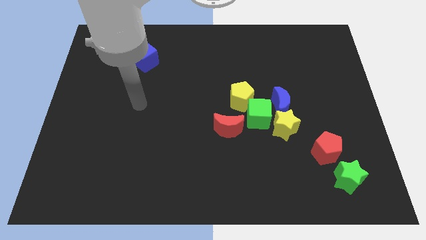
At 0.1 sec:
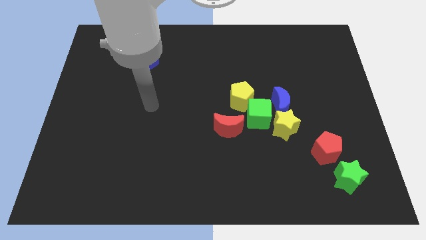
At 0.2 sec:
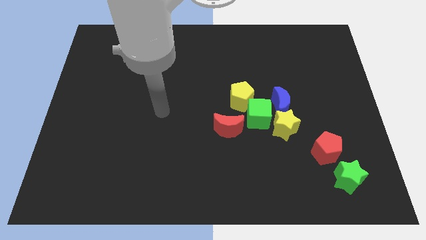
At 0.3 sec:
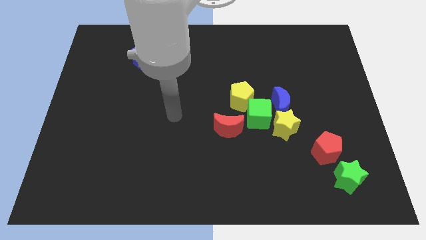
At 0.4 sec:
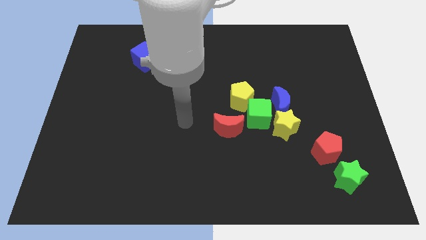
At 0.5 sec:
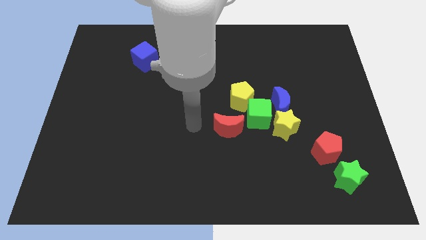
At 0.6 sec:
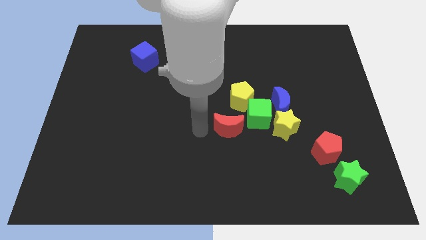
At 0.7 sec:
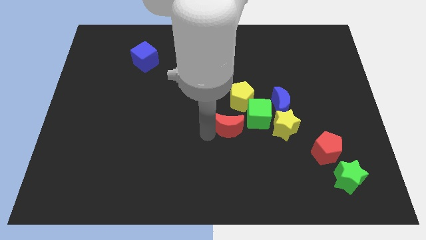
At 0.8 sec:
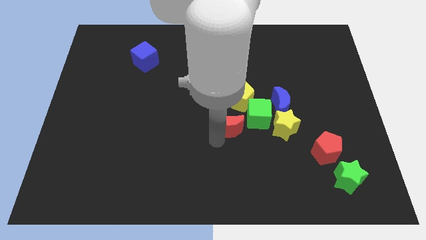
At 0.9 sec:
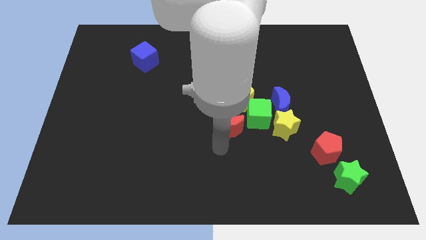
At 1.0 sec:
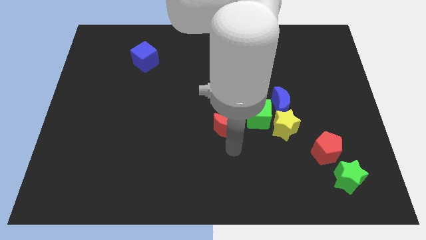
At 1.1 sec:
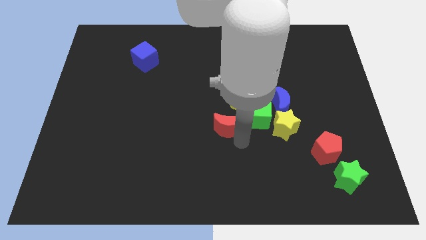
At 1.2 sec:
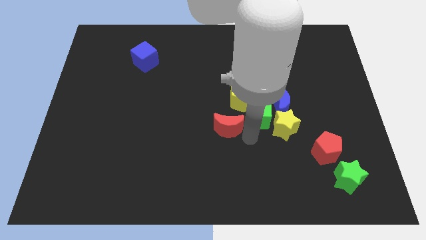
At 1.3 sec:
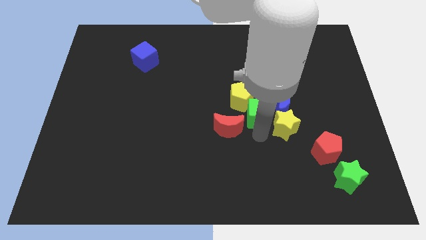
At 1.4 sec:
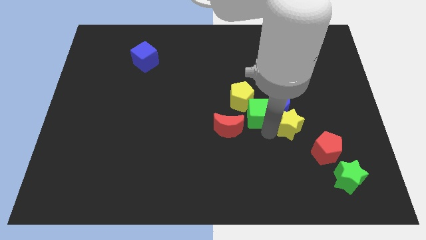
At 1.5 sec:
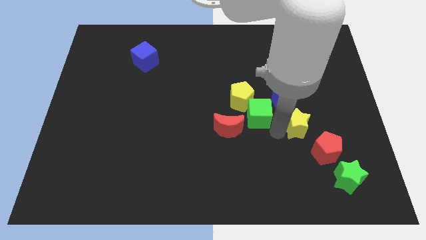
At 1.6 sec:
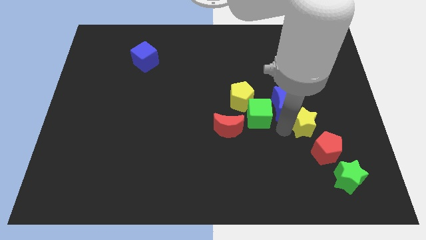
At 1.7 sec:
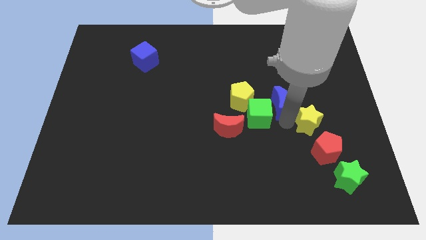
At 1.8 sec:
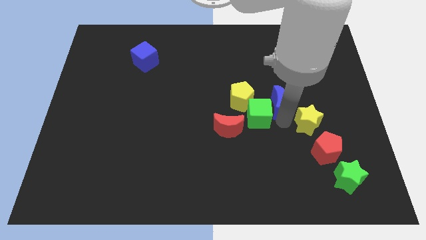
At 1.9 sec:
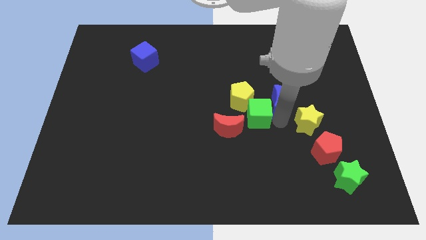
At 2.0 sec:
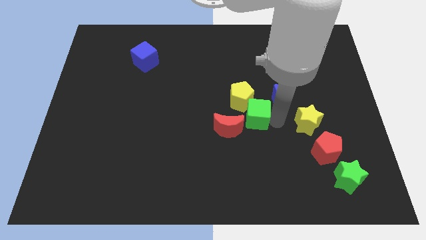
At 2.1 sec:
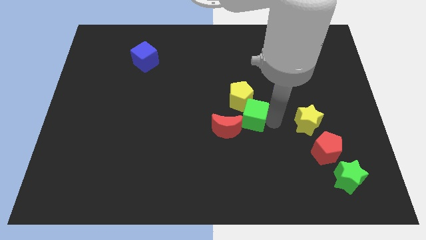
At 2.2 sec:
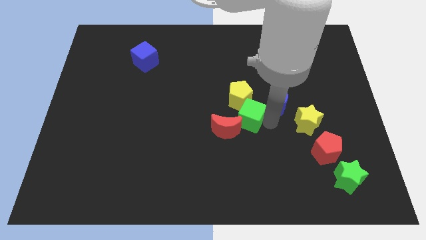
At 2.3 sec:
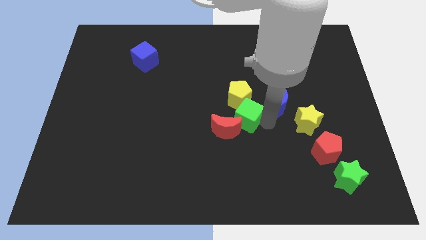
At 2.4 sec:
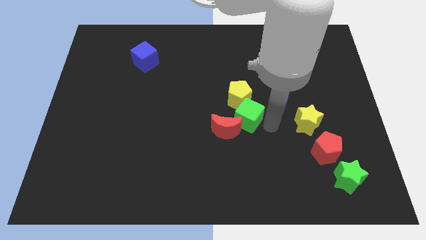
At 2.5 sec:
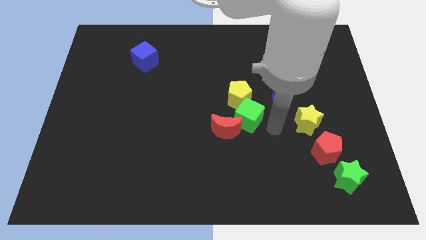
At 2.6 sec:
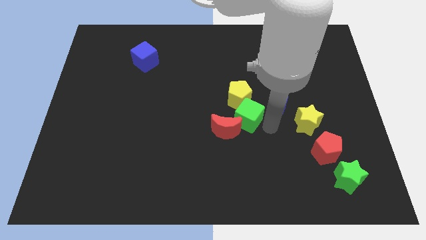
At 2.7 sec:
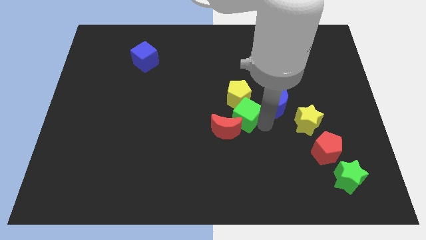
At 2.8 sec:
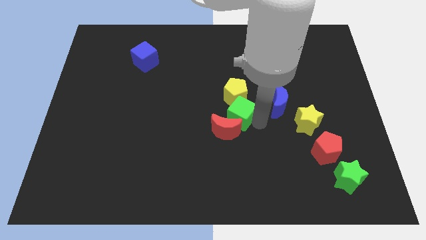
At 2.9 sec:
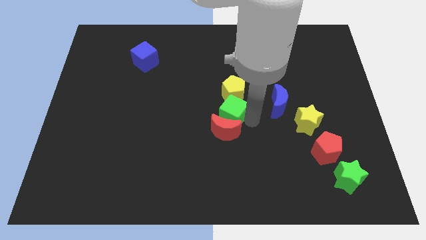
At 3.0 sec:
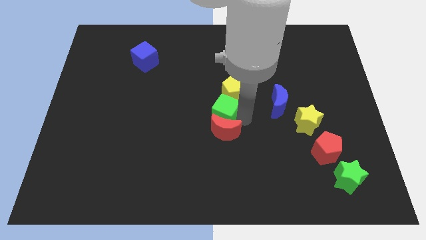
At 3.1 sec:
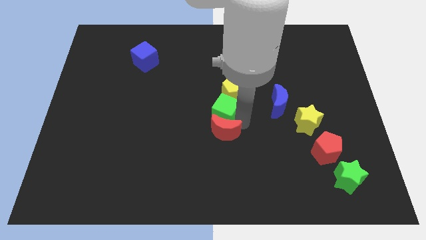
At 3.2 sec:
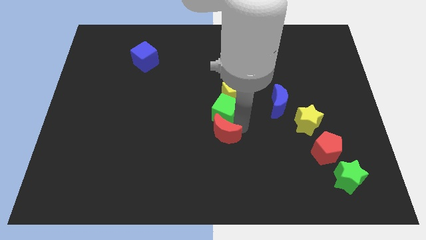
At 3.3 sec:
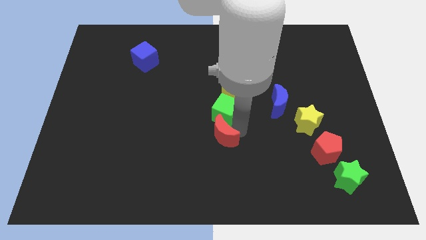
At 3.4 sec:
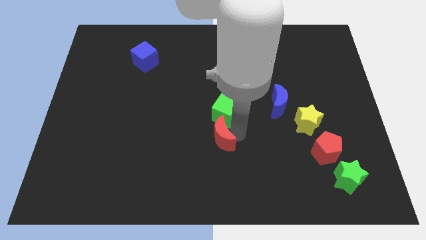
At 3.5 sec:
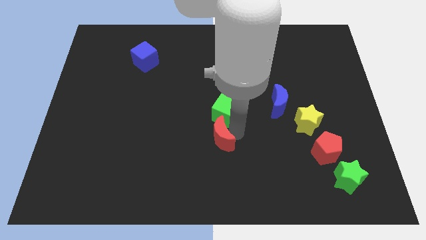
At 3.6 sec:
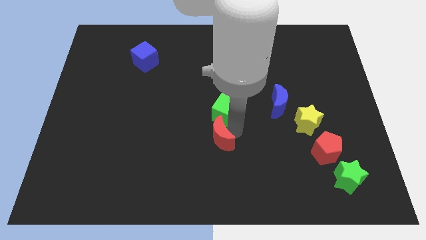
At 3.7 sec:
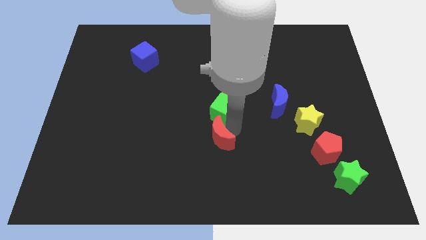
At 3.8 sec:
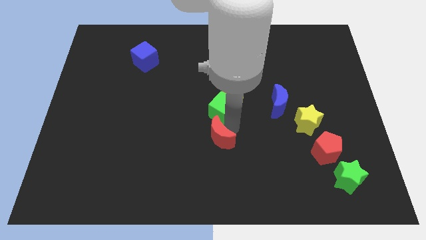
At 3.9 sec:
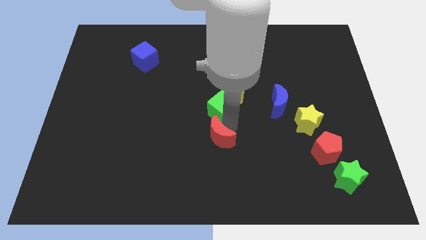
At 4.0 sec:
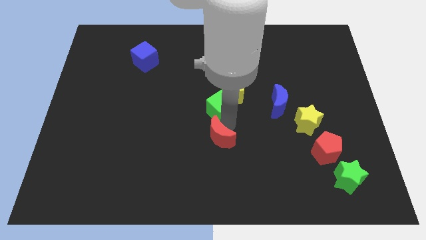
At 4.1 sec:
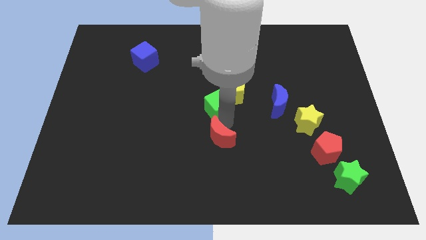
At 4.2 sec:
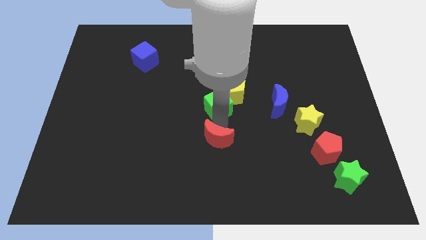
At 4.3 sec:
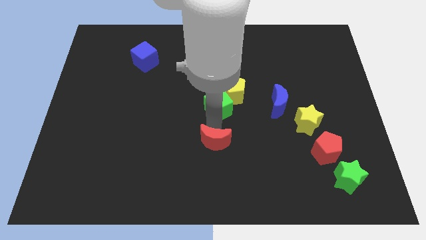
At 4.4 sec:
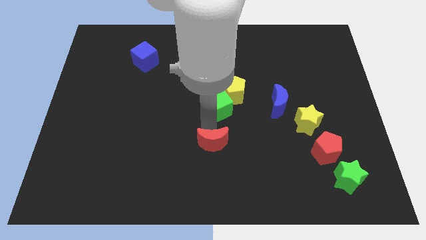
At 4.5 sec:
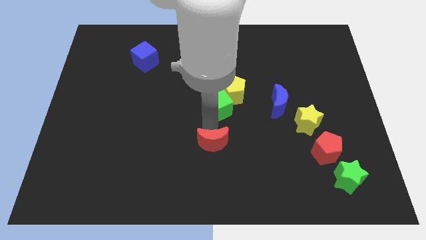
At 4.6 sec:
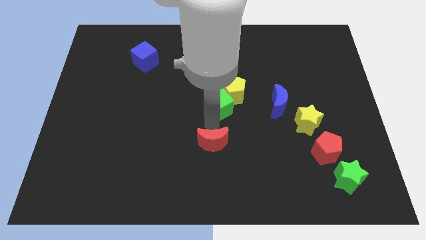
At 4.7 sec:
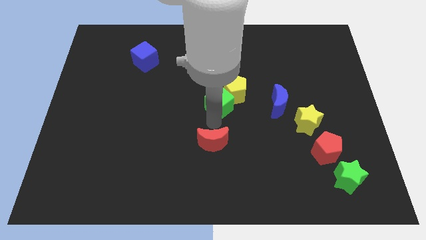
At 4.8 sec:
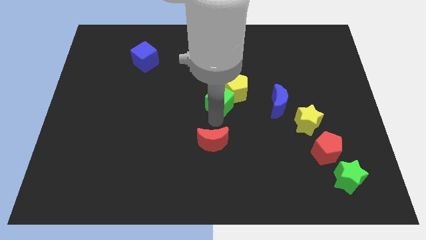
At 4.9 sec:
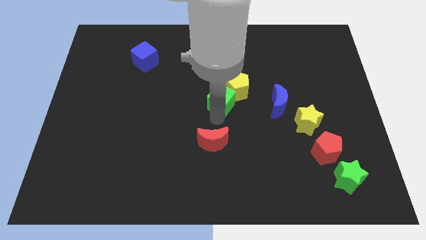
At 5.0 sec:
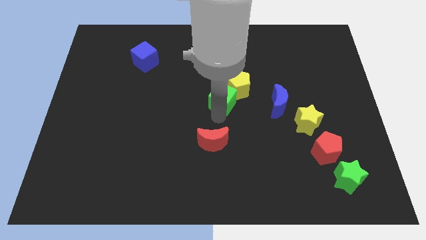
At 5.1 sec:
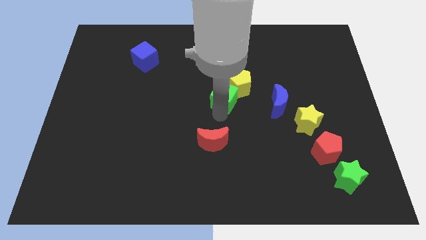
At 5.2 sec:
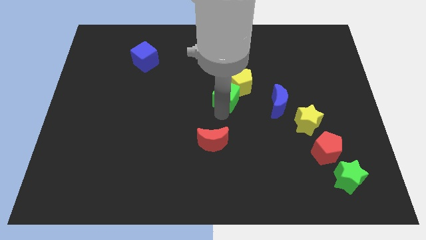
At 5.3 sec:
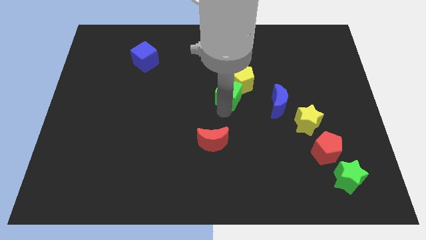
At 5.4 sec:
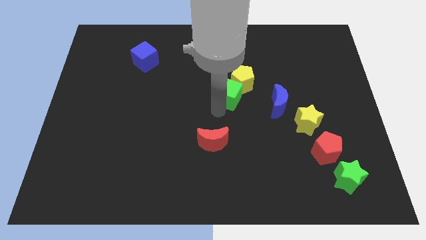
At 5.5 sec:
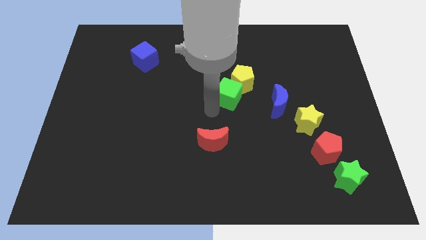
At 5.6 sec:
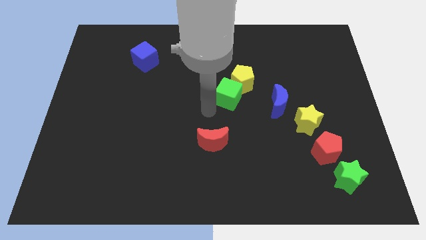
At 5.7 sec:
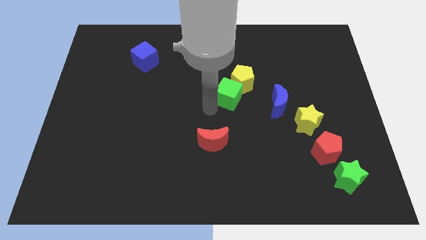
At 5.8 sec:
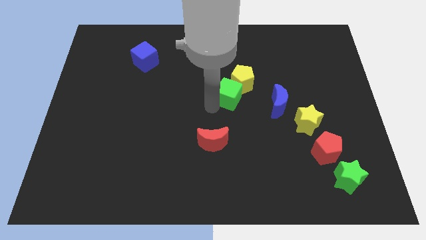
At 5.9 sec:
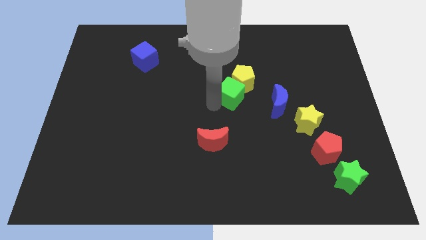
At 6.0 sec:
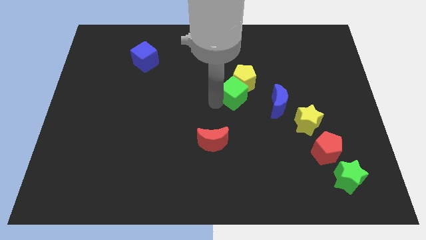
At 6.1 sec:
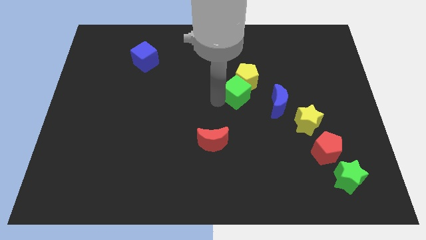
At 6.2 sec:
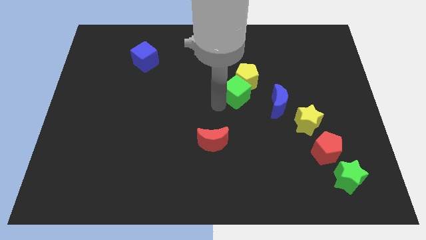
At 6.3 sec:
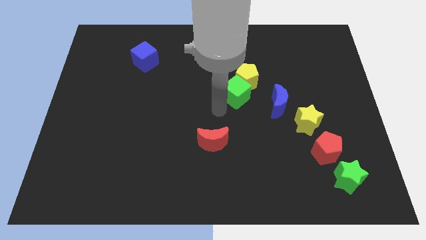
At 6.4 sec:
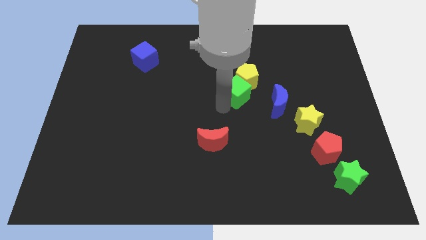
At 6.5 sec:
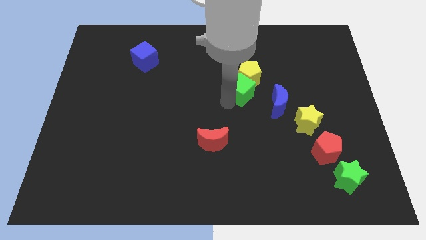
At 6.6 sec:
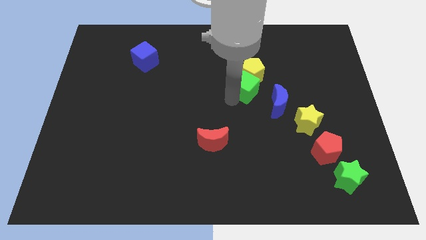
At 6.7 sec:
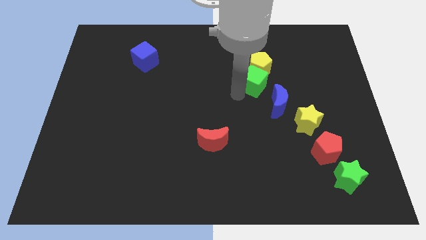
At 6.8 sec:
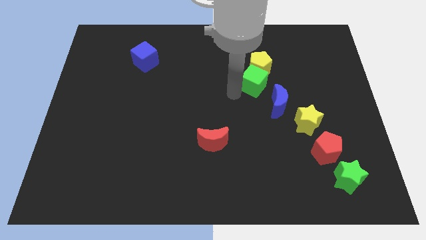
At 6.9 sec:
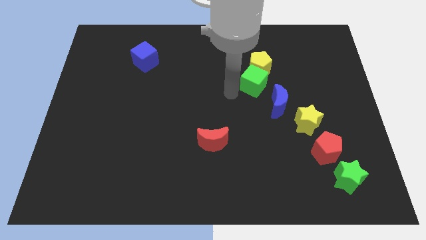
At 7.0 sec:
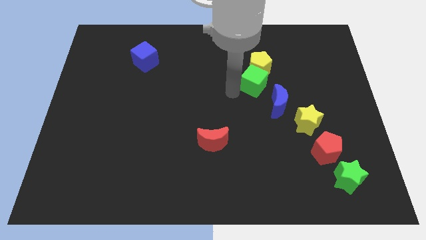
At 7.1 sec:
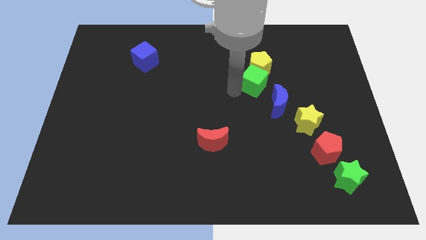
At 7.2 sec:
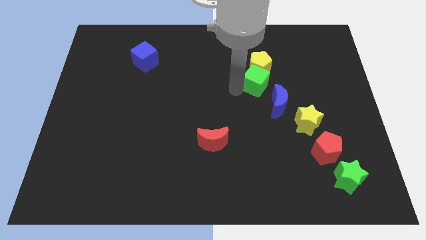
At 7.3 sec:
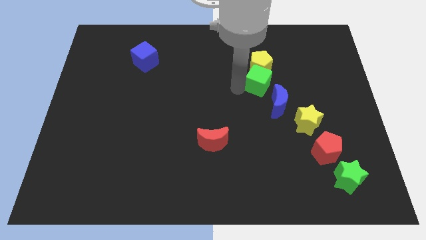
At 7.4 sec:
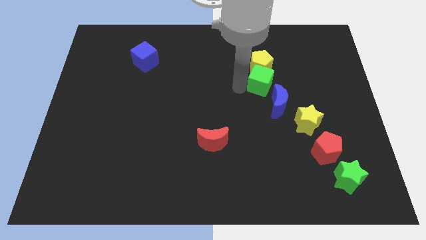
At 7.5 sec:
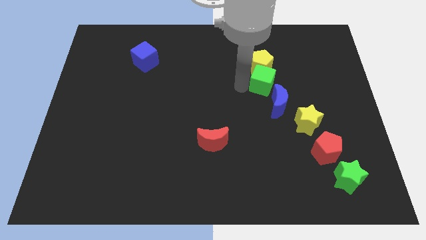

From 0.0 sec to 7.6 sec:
slightly move the green cube diagonally upwards and right

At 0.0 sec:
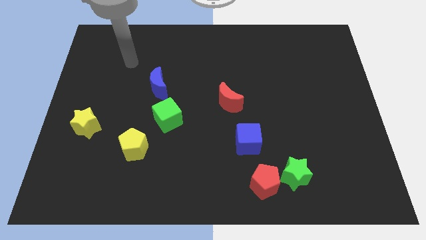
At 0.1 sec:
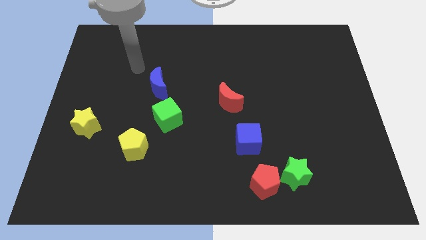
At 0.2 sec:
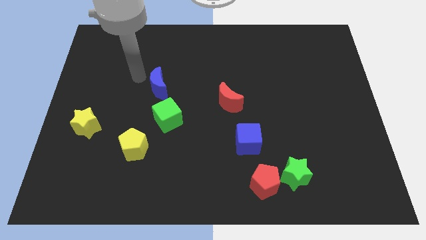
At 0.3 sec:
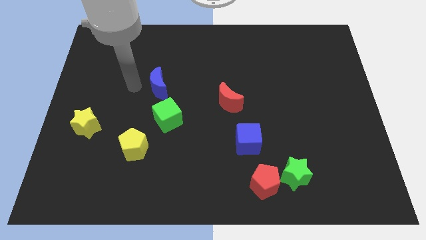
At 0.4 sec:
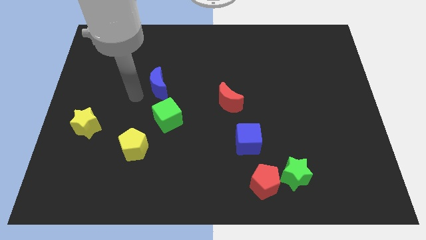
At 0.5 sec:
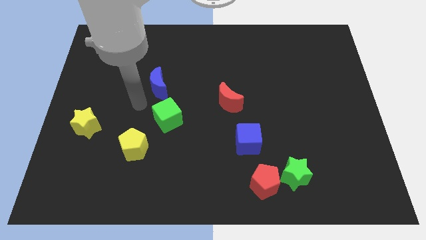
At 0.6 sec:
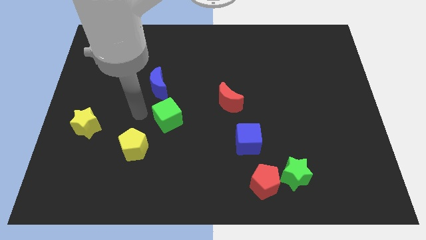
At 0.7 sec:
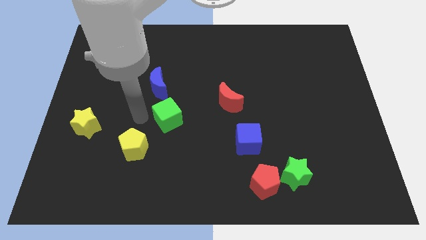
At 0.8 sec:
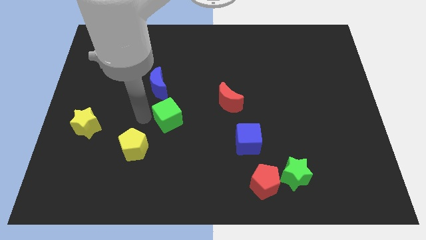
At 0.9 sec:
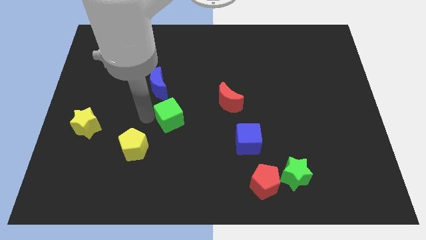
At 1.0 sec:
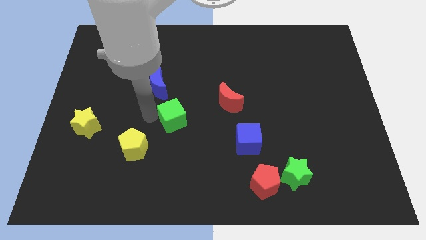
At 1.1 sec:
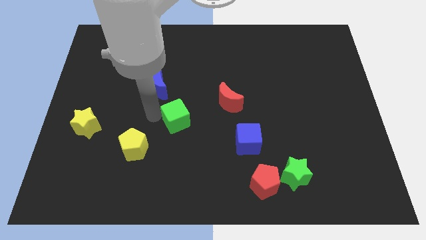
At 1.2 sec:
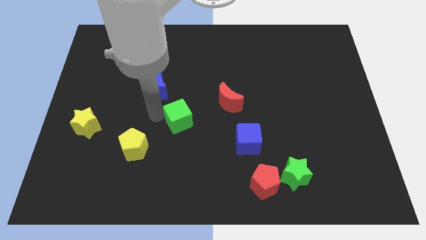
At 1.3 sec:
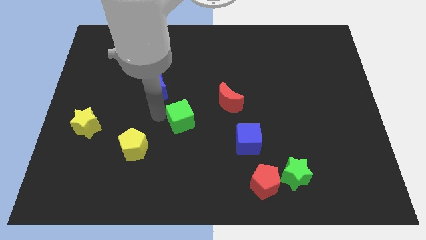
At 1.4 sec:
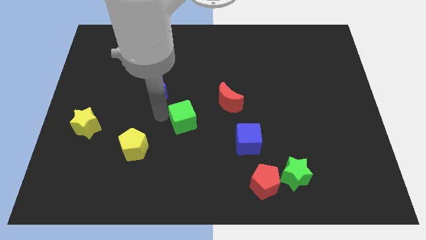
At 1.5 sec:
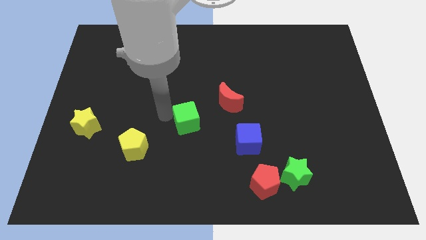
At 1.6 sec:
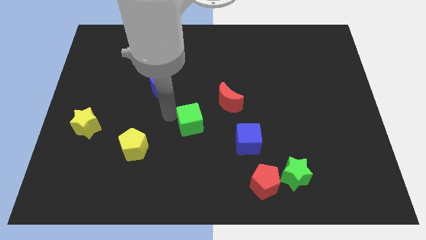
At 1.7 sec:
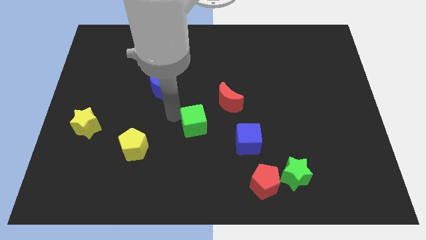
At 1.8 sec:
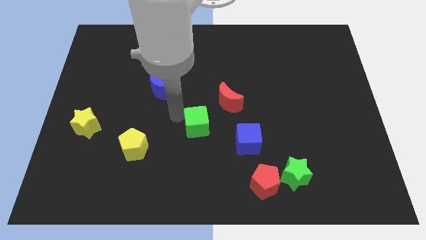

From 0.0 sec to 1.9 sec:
push the green cube a little bit to the right
